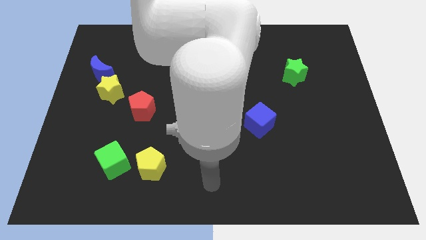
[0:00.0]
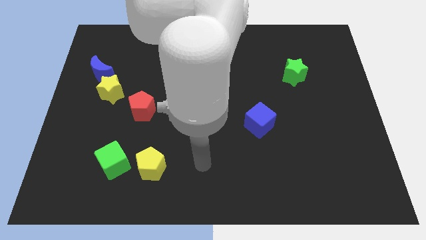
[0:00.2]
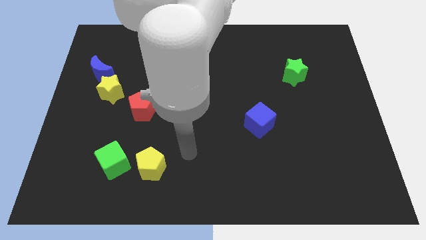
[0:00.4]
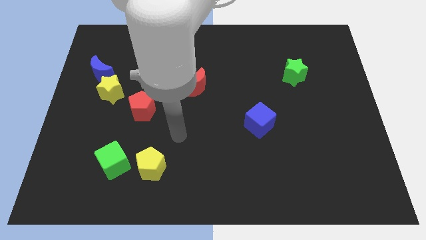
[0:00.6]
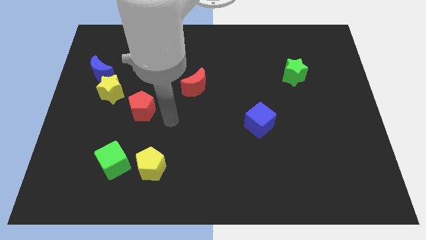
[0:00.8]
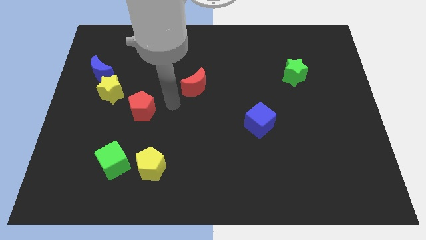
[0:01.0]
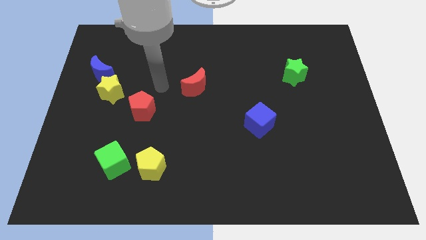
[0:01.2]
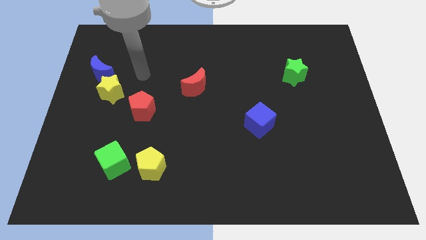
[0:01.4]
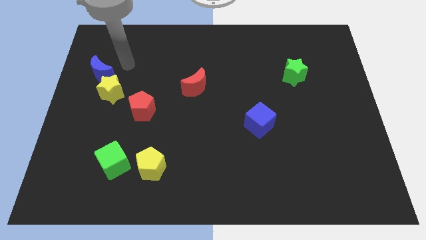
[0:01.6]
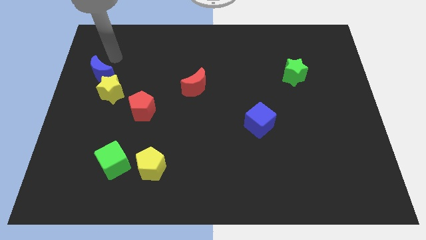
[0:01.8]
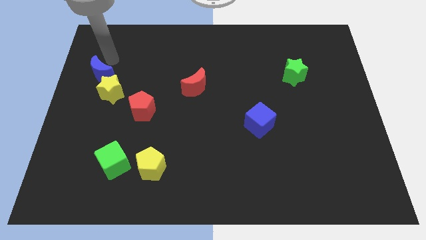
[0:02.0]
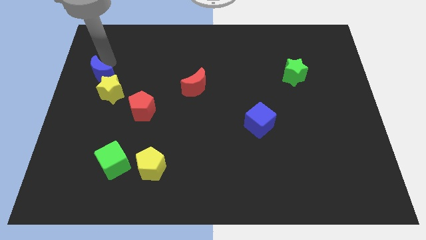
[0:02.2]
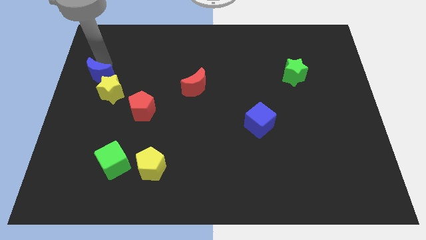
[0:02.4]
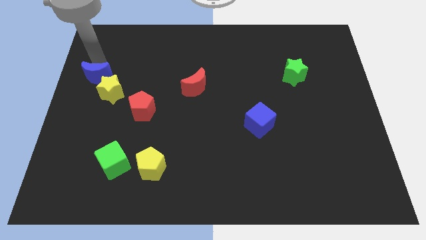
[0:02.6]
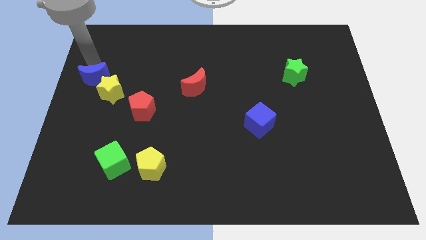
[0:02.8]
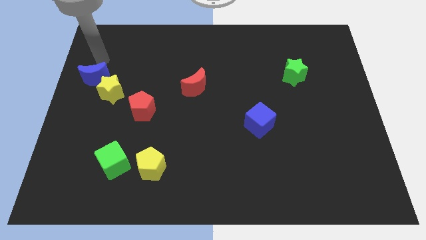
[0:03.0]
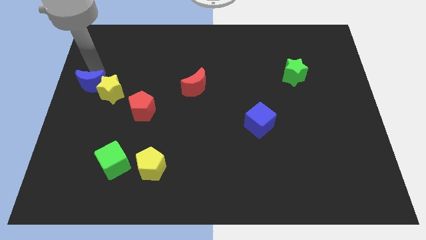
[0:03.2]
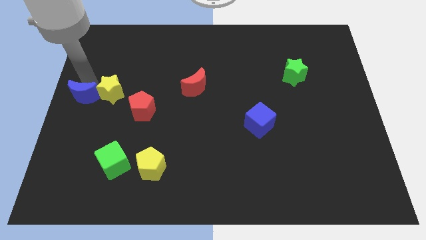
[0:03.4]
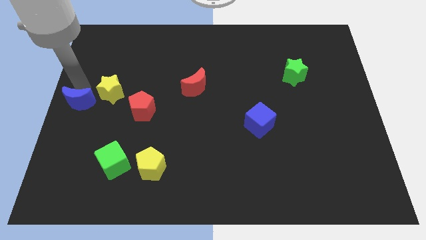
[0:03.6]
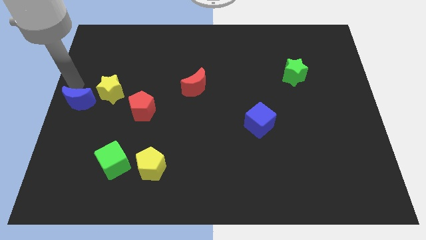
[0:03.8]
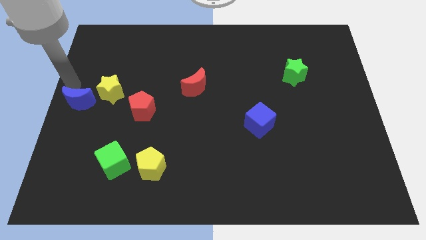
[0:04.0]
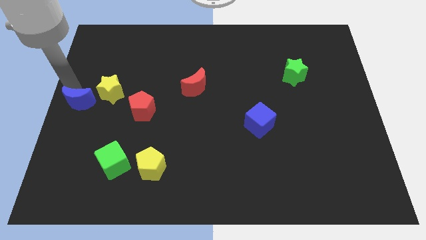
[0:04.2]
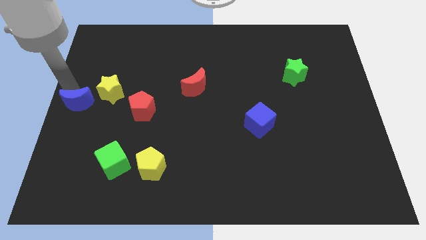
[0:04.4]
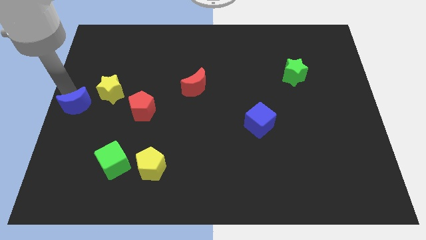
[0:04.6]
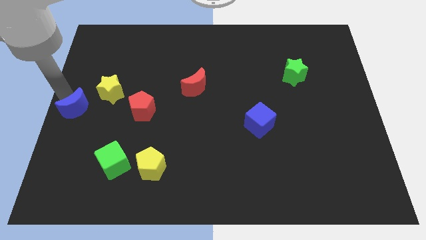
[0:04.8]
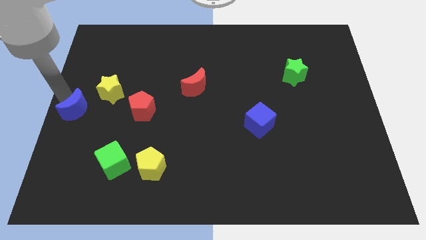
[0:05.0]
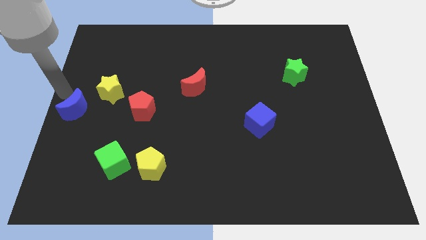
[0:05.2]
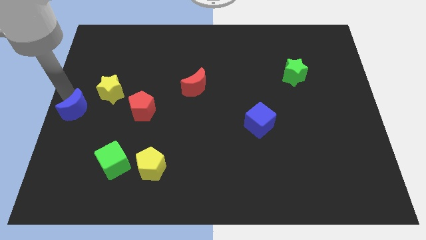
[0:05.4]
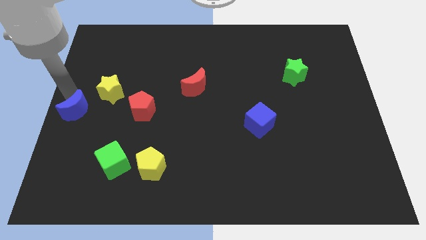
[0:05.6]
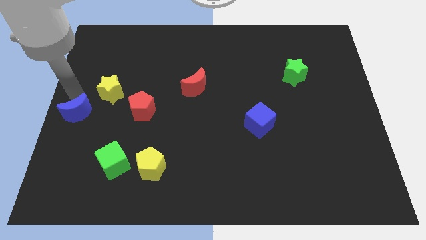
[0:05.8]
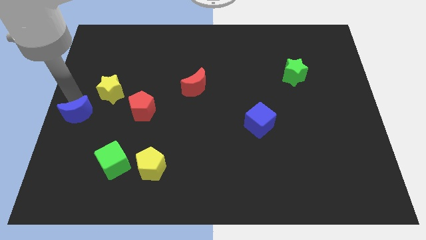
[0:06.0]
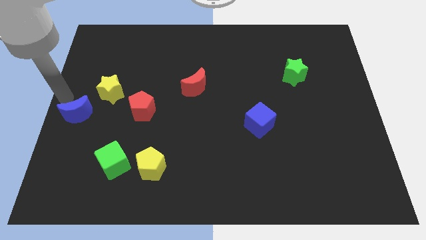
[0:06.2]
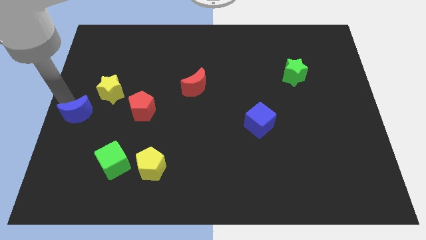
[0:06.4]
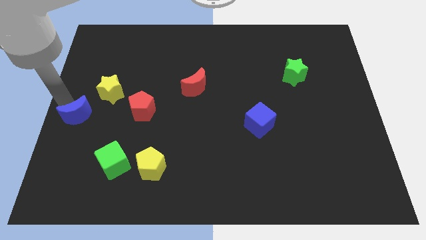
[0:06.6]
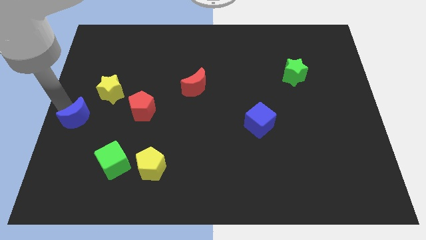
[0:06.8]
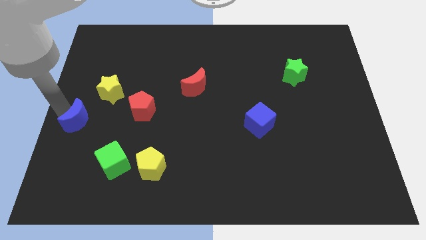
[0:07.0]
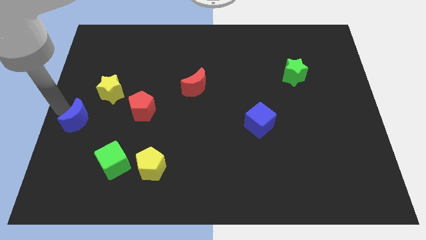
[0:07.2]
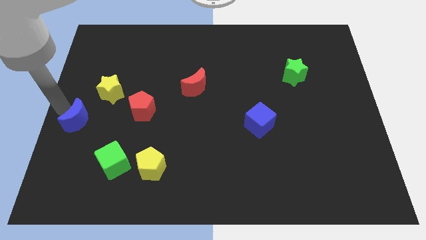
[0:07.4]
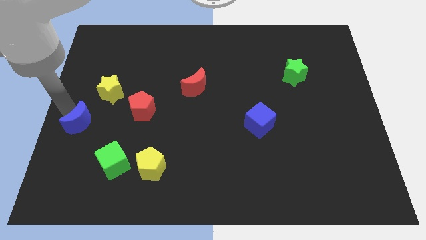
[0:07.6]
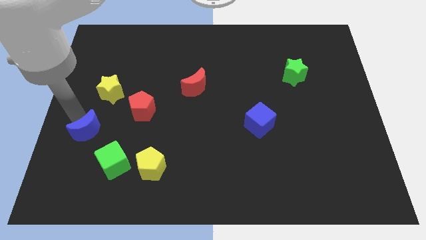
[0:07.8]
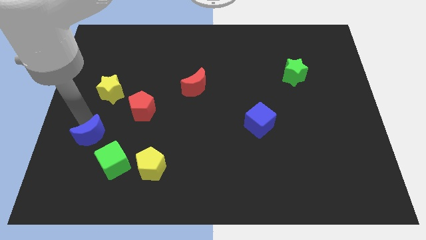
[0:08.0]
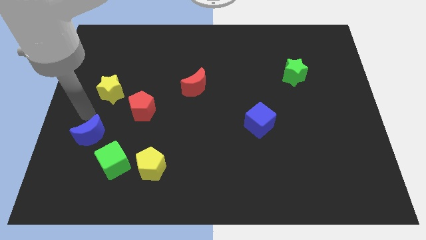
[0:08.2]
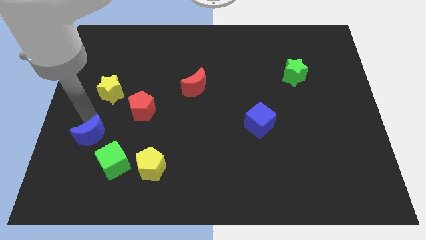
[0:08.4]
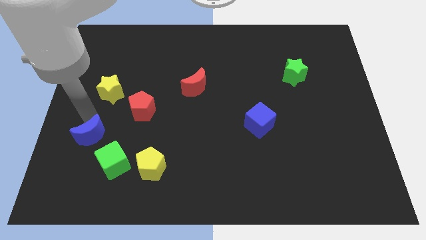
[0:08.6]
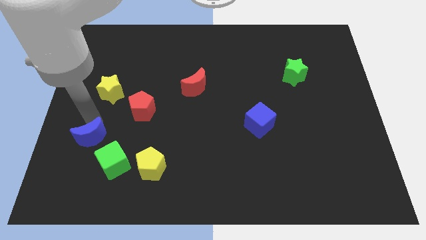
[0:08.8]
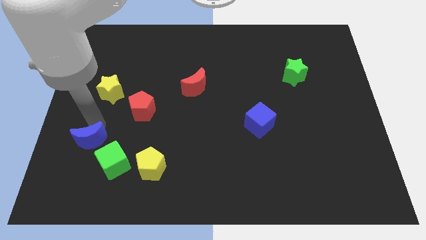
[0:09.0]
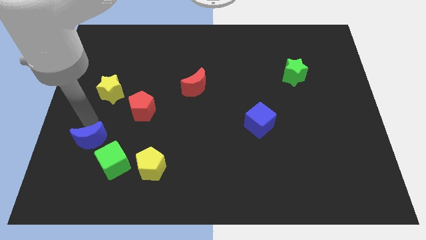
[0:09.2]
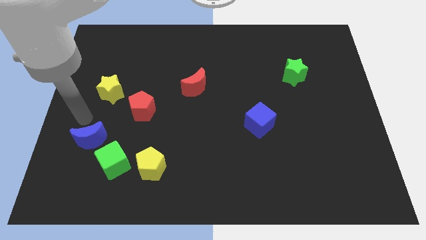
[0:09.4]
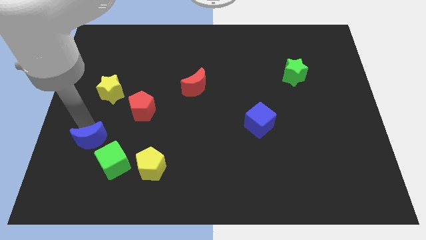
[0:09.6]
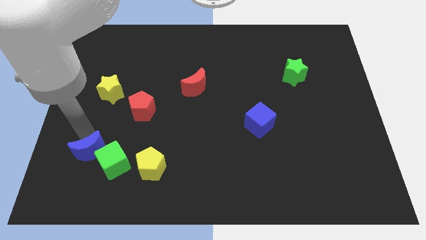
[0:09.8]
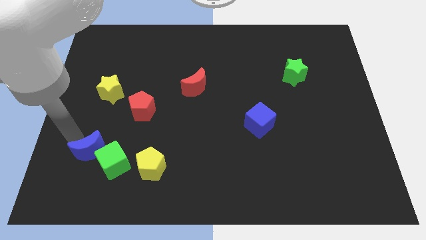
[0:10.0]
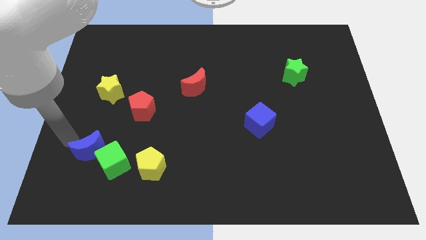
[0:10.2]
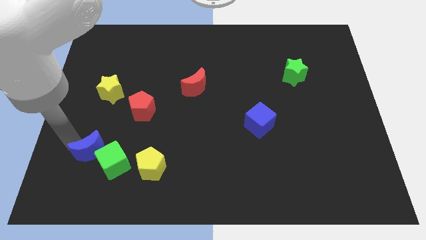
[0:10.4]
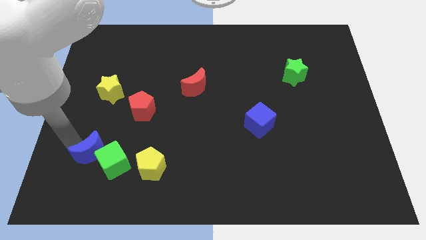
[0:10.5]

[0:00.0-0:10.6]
put the blue moon to the green cube

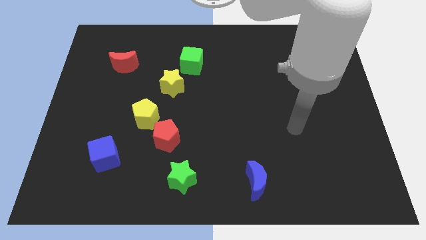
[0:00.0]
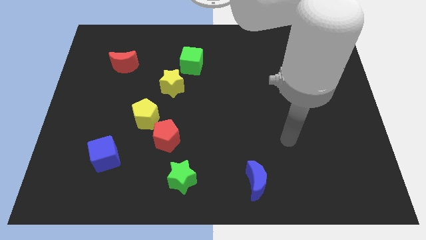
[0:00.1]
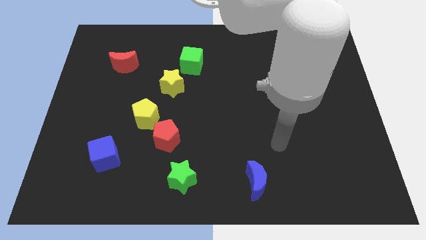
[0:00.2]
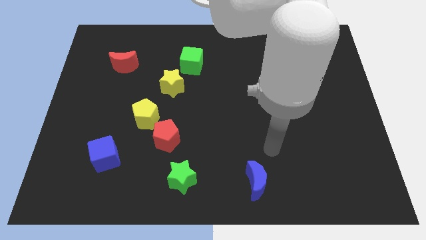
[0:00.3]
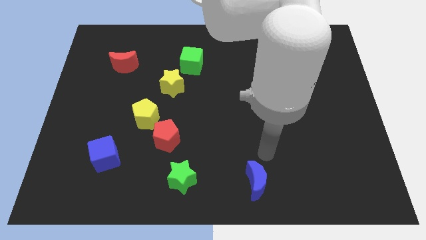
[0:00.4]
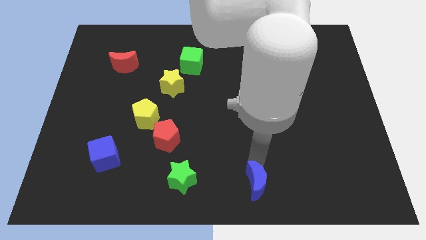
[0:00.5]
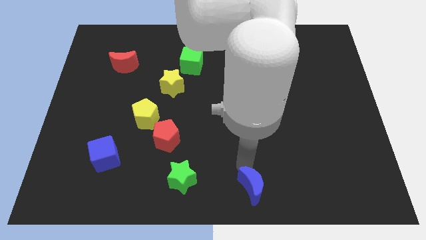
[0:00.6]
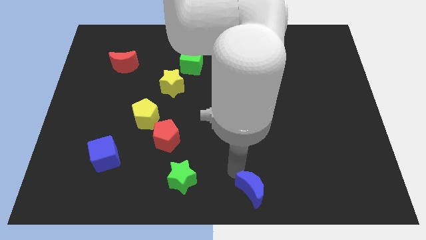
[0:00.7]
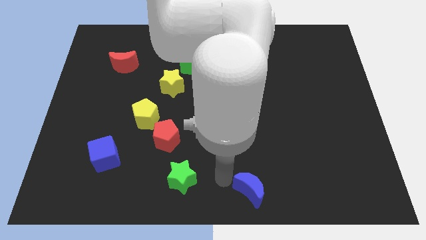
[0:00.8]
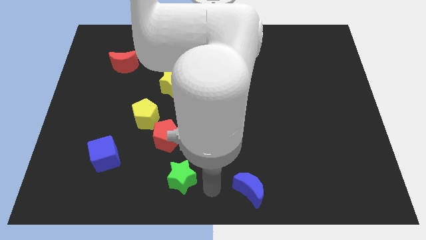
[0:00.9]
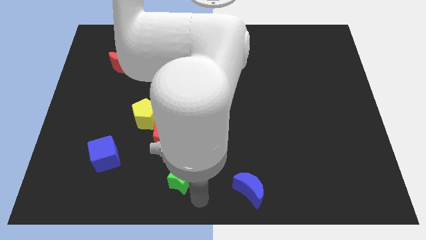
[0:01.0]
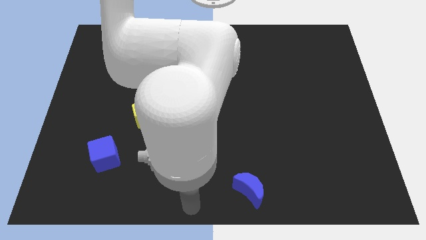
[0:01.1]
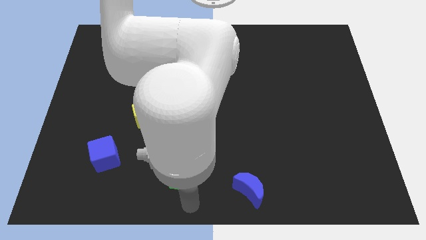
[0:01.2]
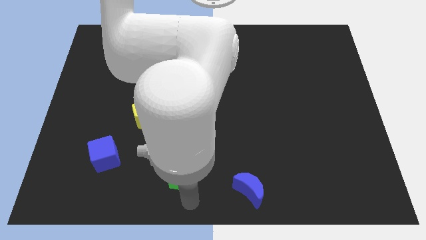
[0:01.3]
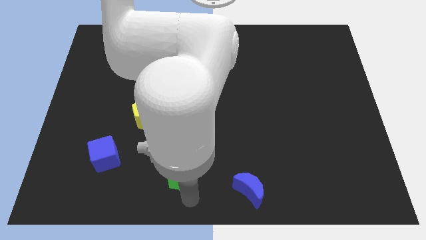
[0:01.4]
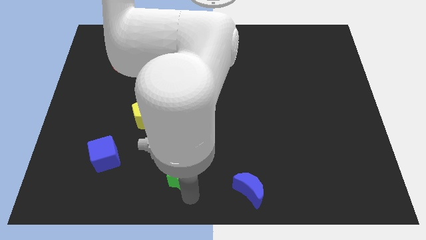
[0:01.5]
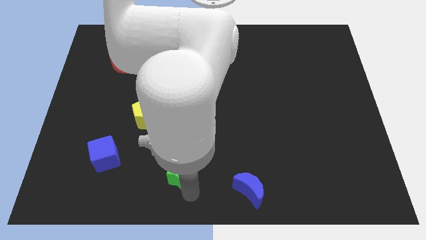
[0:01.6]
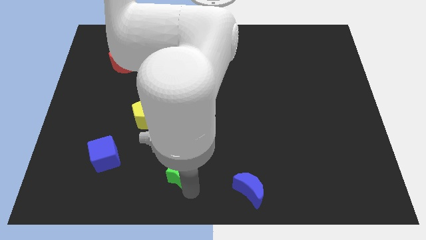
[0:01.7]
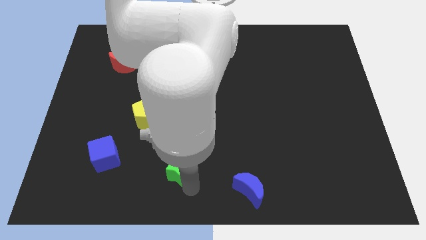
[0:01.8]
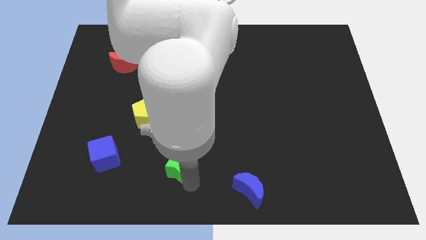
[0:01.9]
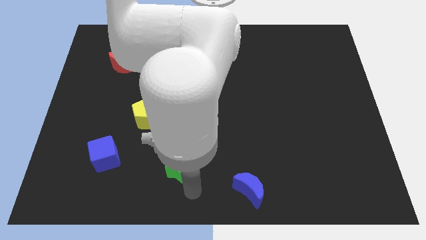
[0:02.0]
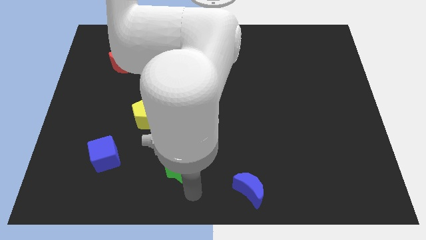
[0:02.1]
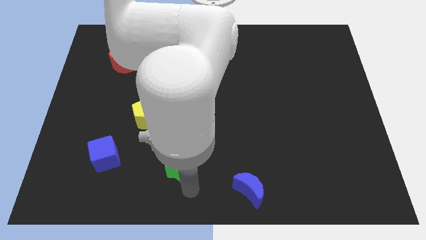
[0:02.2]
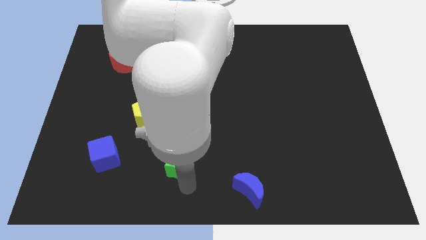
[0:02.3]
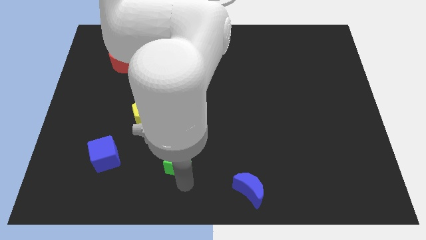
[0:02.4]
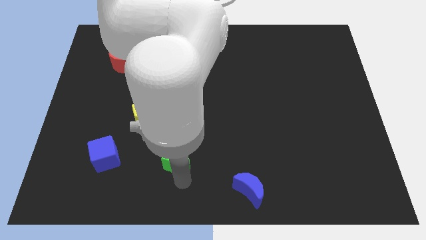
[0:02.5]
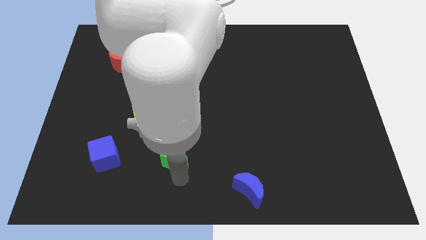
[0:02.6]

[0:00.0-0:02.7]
push the green star close to the red pentagon

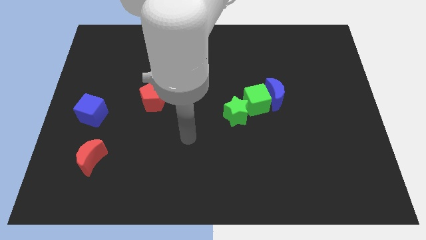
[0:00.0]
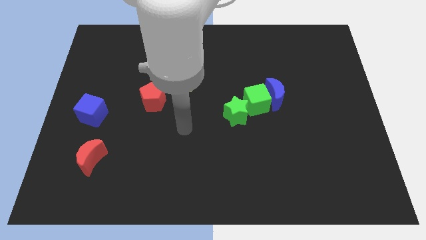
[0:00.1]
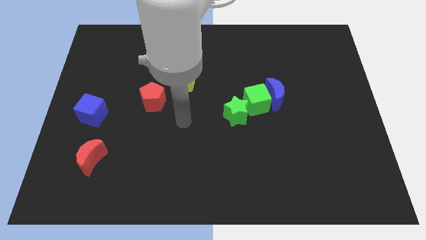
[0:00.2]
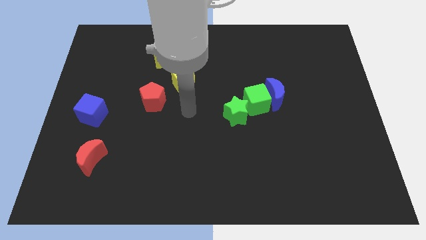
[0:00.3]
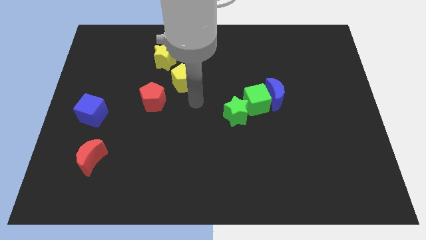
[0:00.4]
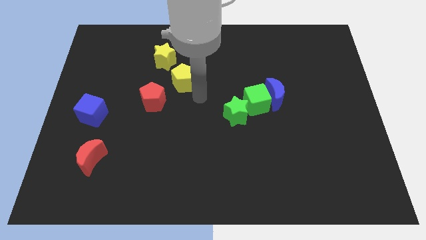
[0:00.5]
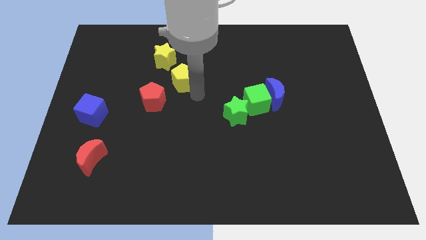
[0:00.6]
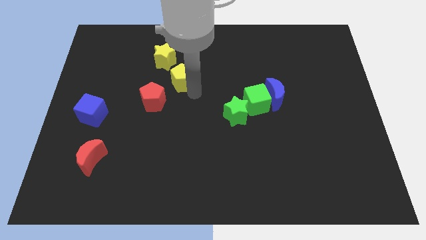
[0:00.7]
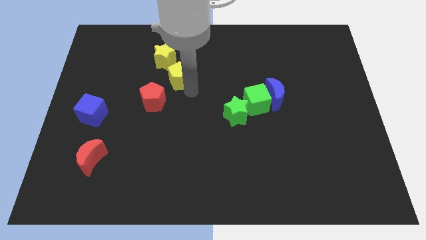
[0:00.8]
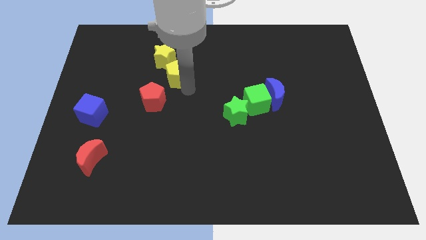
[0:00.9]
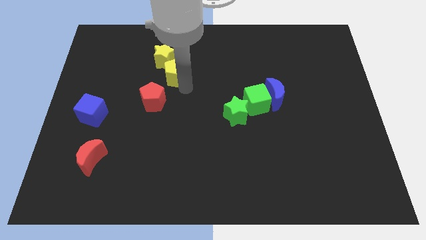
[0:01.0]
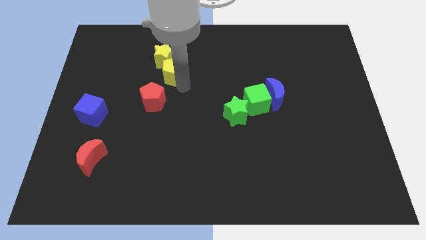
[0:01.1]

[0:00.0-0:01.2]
move the yellow pentagon to the yellow star
